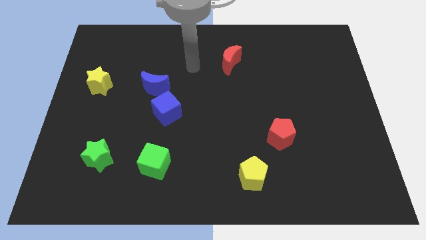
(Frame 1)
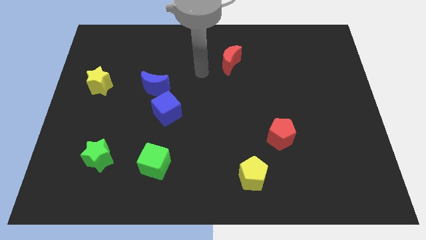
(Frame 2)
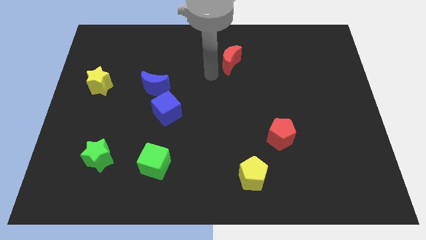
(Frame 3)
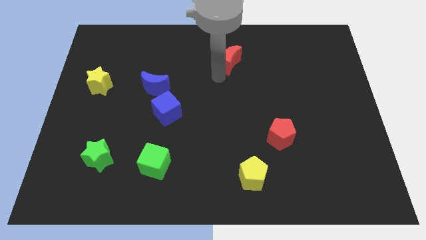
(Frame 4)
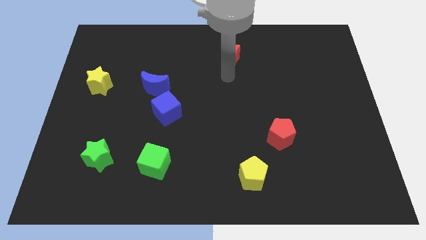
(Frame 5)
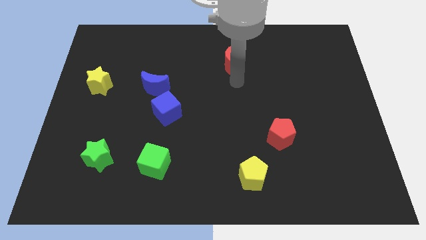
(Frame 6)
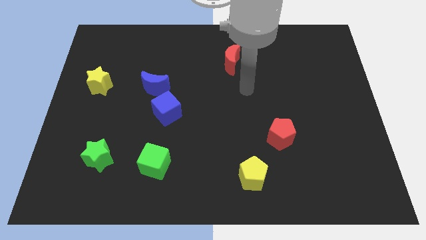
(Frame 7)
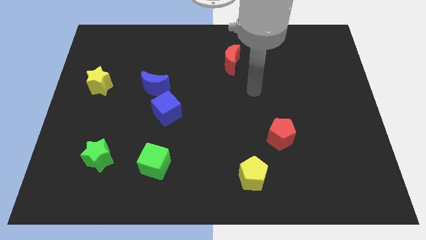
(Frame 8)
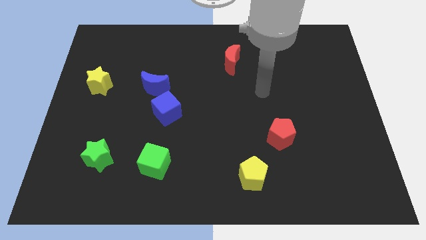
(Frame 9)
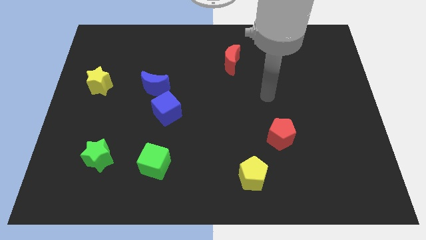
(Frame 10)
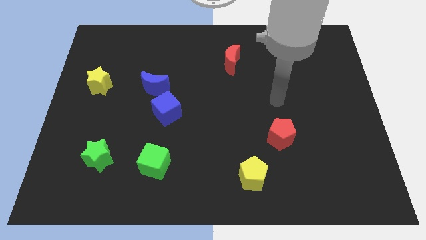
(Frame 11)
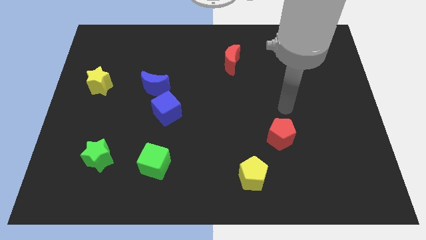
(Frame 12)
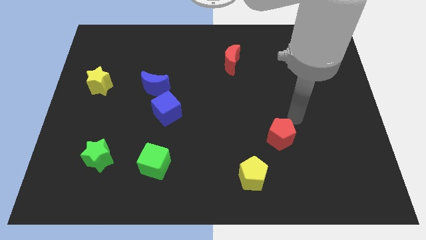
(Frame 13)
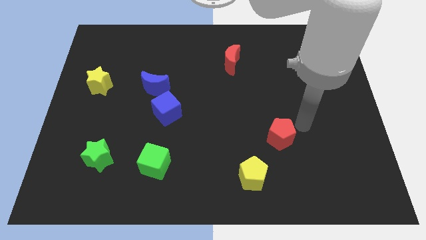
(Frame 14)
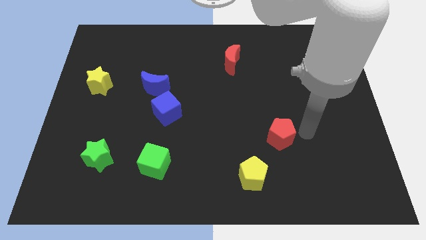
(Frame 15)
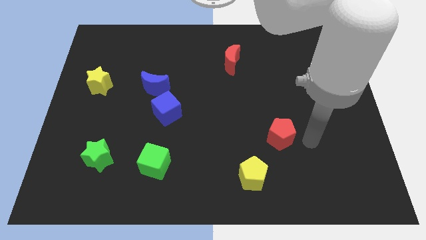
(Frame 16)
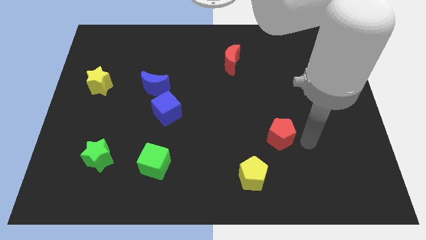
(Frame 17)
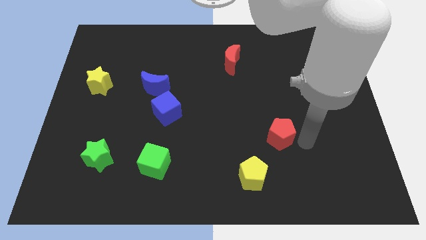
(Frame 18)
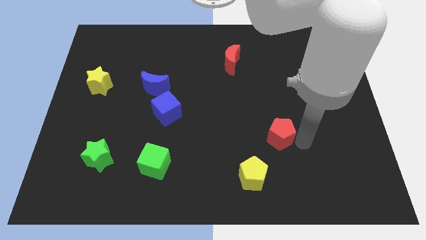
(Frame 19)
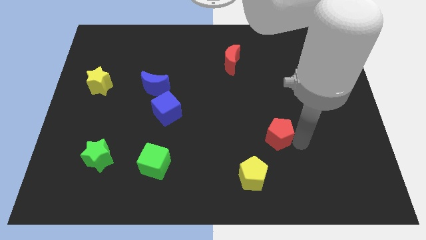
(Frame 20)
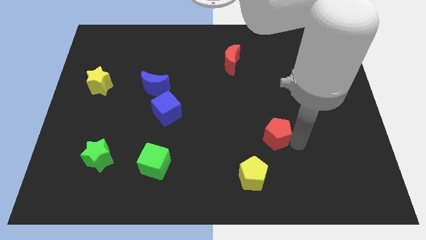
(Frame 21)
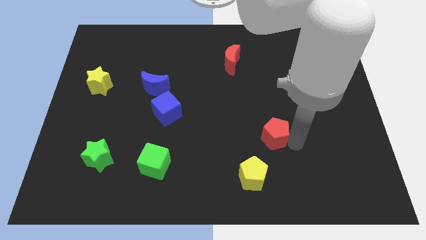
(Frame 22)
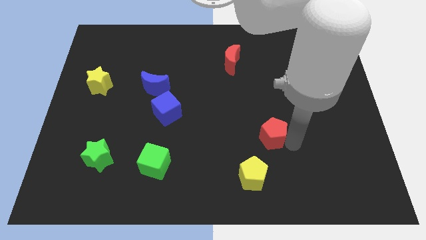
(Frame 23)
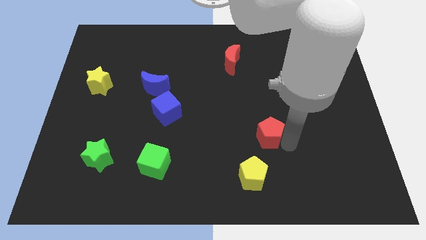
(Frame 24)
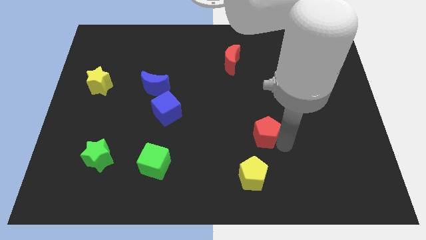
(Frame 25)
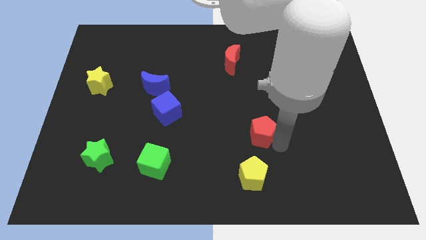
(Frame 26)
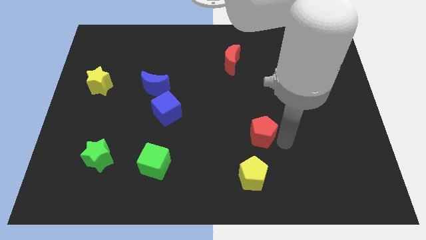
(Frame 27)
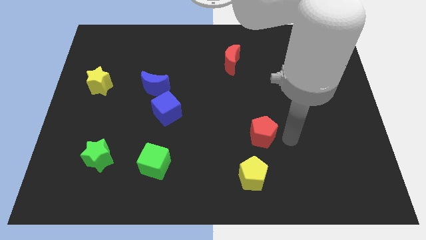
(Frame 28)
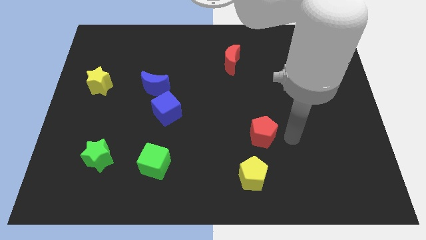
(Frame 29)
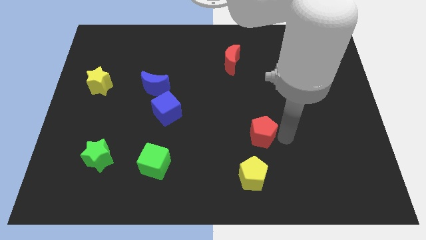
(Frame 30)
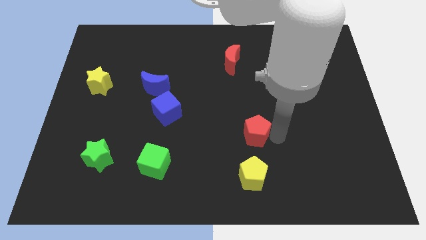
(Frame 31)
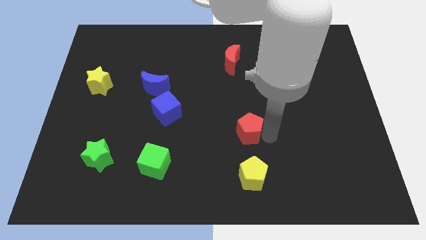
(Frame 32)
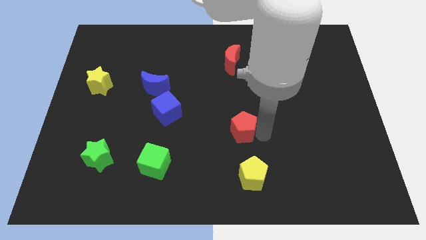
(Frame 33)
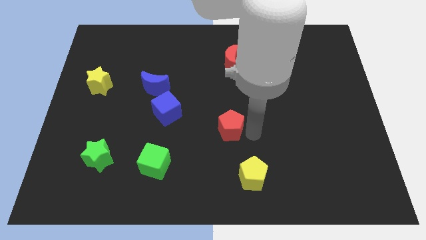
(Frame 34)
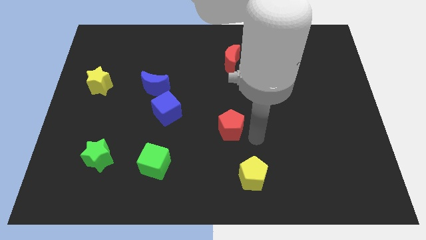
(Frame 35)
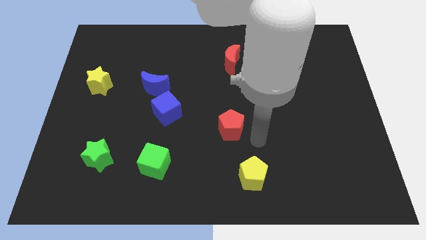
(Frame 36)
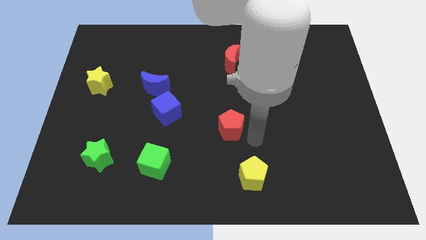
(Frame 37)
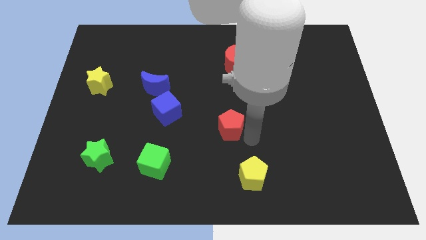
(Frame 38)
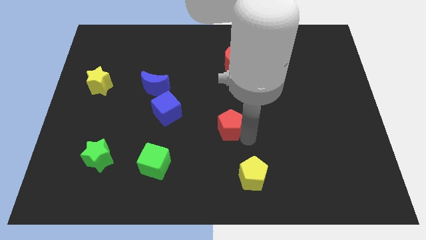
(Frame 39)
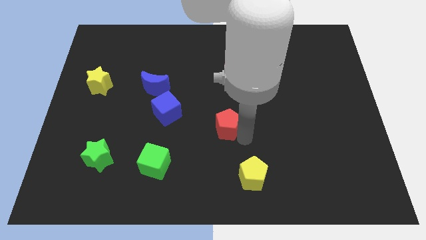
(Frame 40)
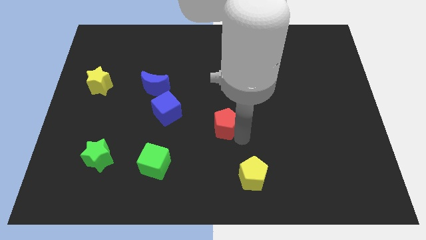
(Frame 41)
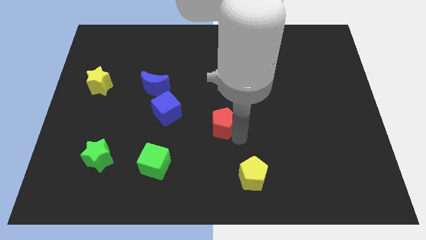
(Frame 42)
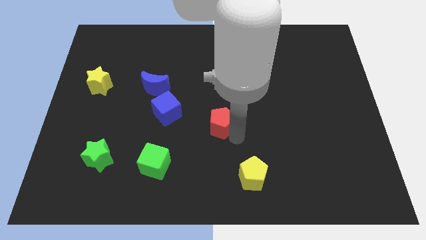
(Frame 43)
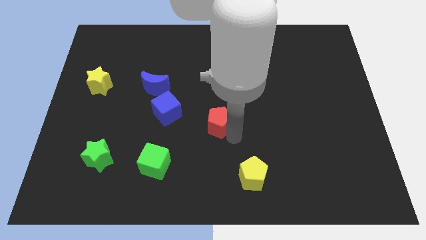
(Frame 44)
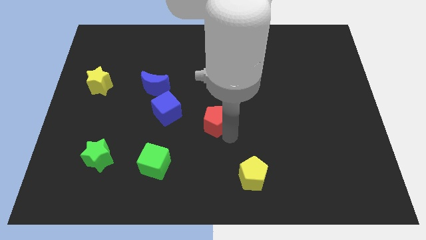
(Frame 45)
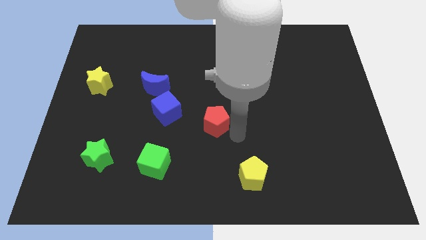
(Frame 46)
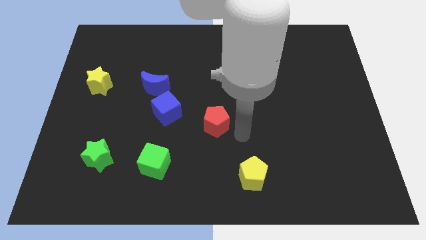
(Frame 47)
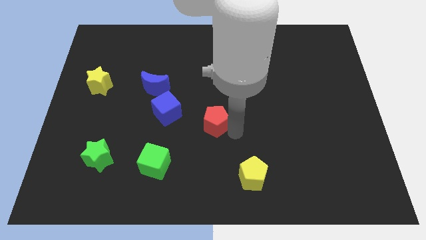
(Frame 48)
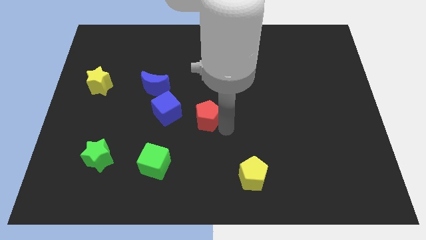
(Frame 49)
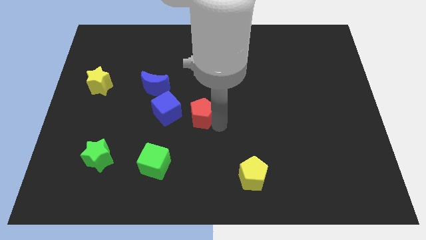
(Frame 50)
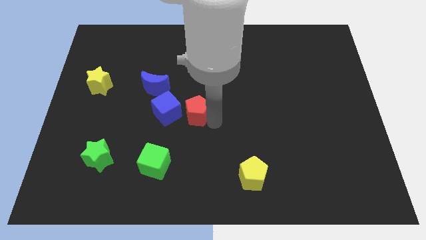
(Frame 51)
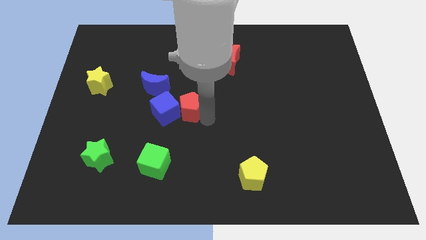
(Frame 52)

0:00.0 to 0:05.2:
put the red pentagon to the bottom right side of the blue moon

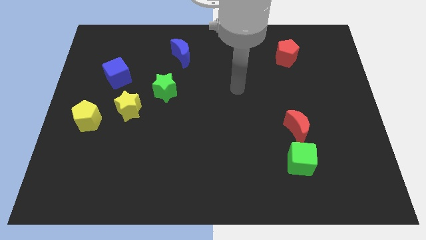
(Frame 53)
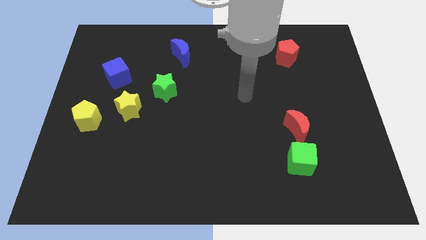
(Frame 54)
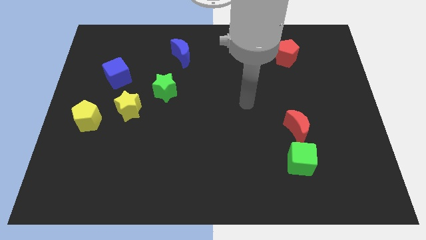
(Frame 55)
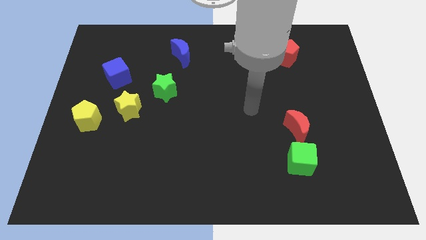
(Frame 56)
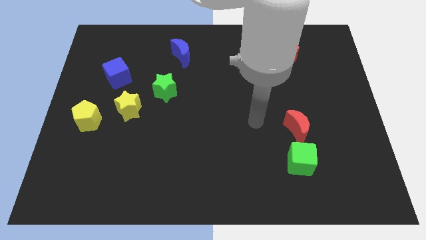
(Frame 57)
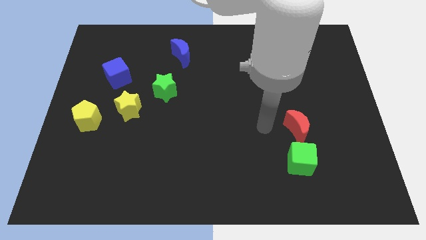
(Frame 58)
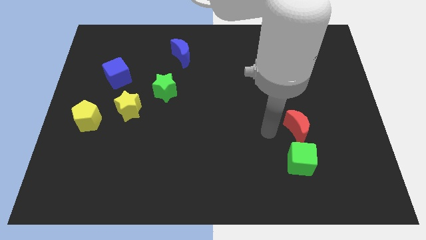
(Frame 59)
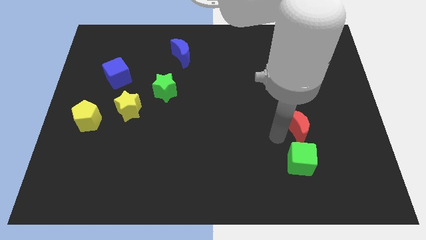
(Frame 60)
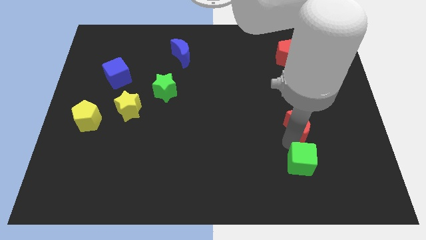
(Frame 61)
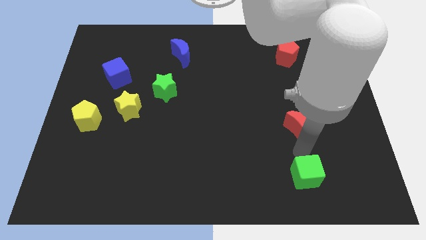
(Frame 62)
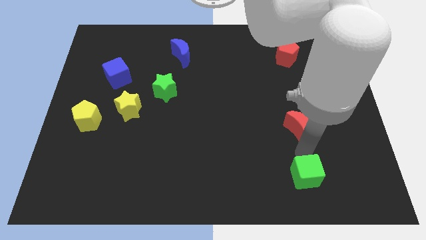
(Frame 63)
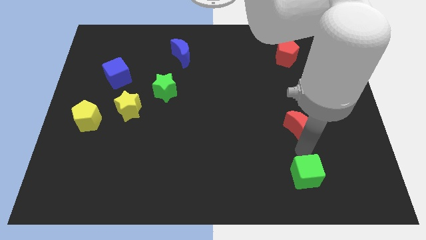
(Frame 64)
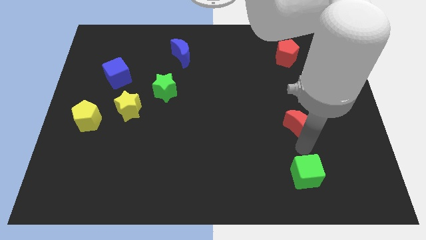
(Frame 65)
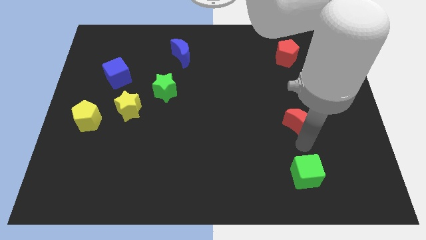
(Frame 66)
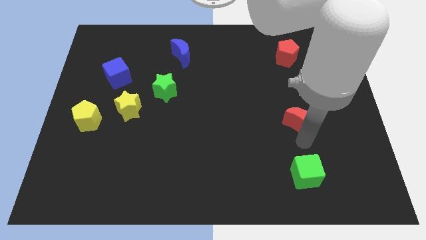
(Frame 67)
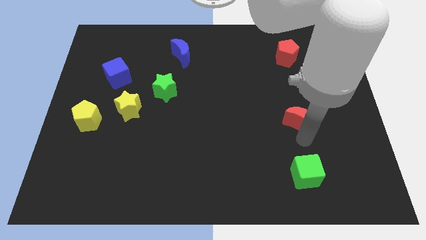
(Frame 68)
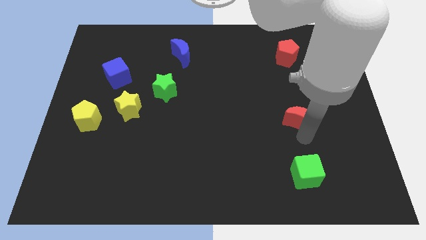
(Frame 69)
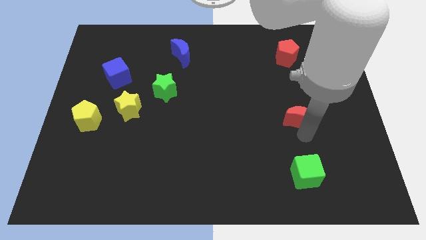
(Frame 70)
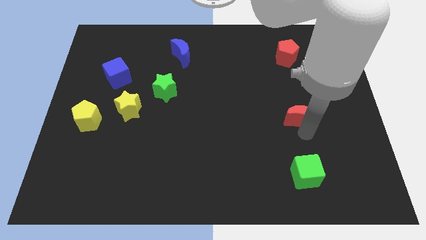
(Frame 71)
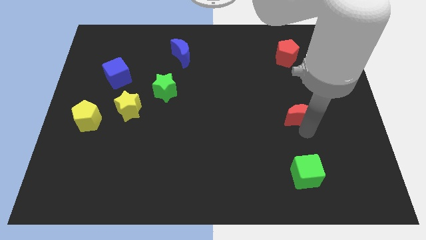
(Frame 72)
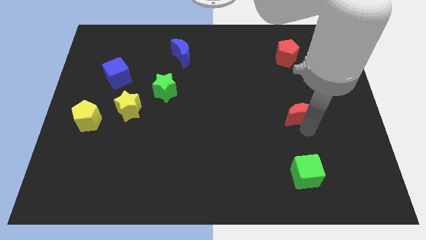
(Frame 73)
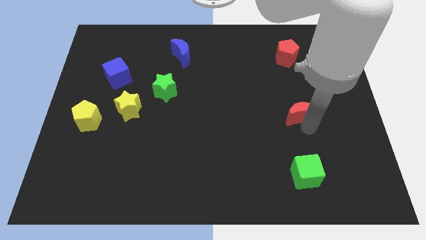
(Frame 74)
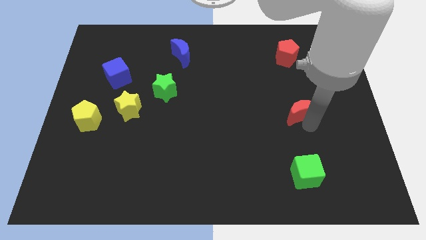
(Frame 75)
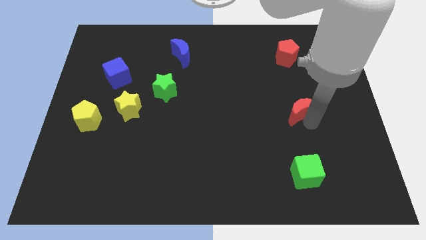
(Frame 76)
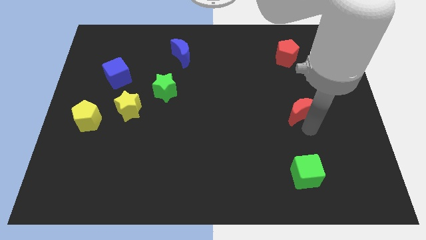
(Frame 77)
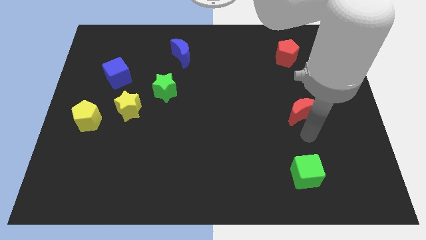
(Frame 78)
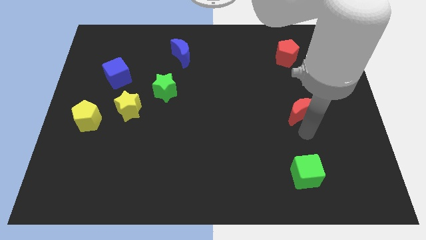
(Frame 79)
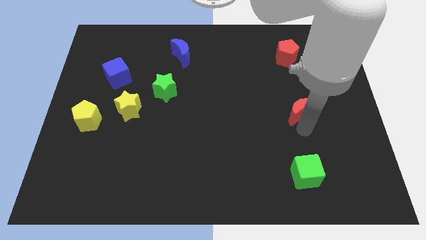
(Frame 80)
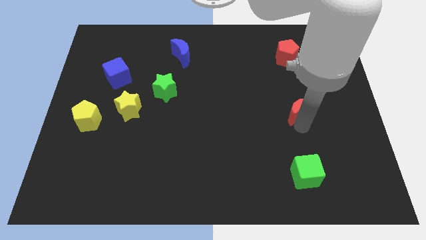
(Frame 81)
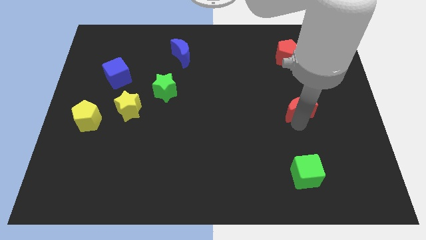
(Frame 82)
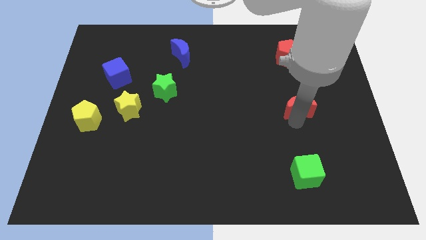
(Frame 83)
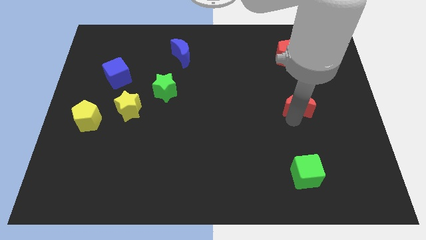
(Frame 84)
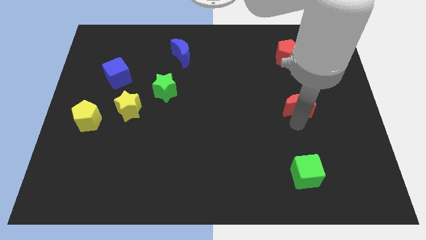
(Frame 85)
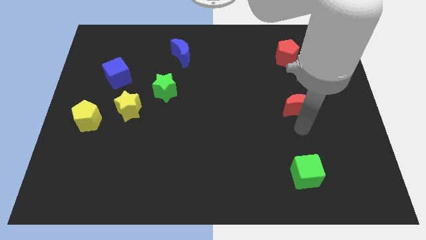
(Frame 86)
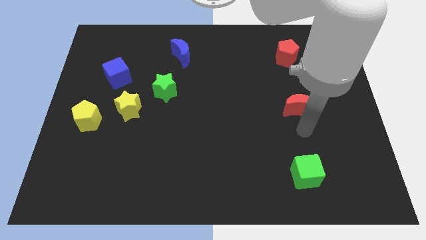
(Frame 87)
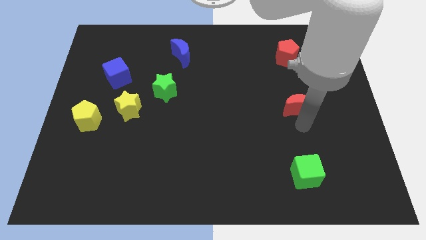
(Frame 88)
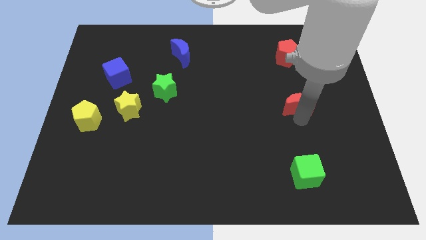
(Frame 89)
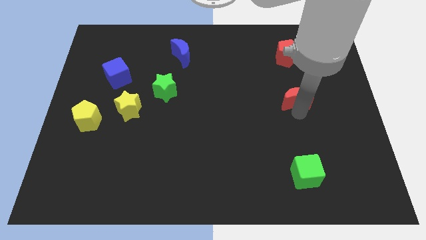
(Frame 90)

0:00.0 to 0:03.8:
slide the red moon to the bottom of the red pentagon
